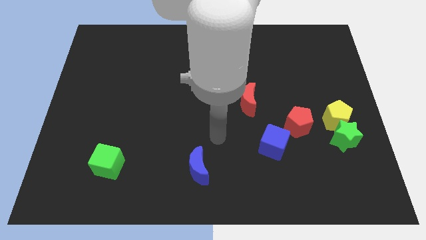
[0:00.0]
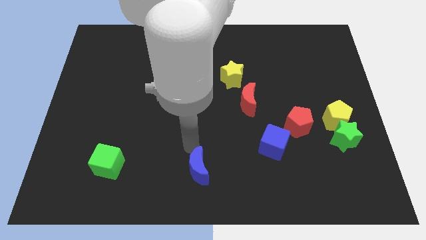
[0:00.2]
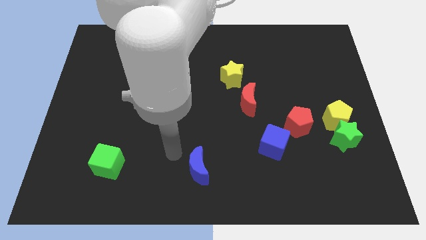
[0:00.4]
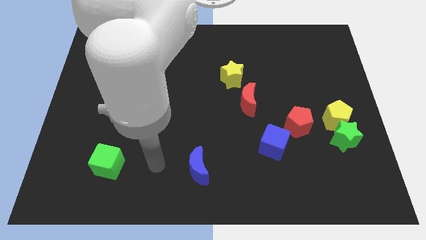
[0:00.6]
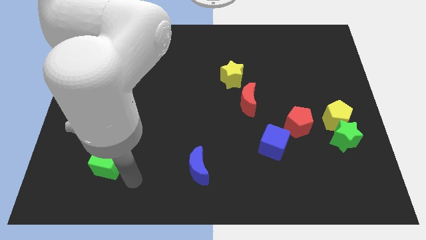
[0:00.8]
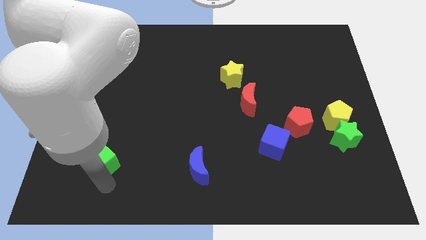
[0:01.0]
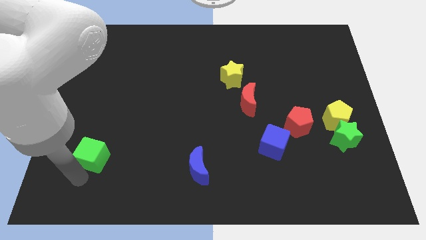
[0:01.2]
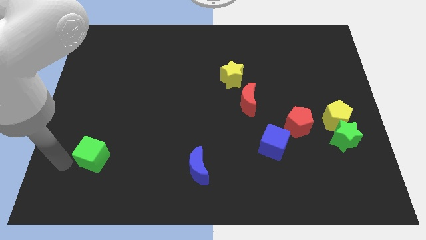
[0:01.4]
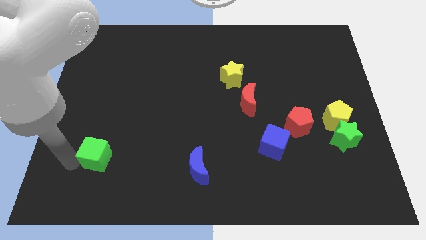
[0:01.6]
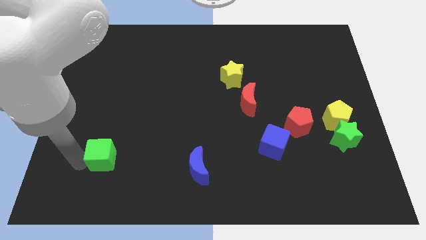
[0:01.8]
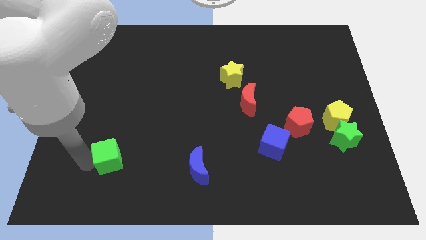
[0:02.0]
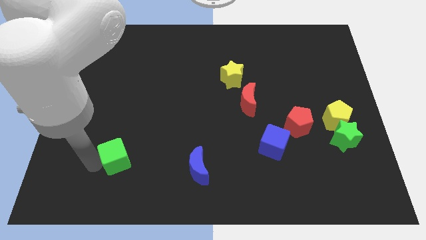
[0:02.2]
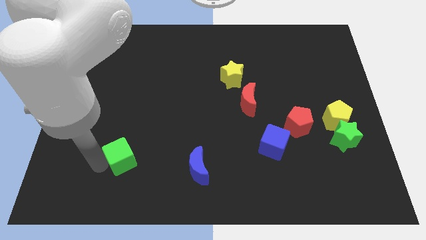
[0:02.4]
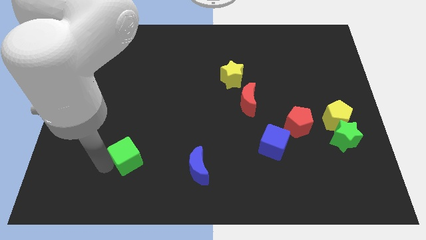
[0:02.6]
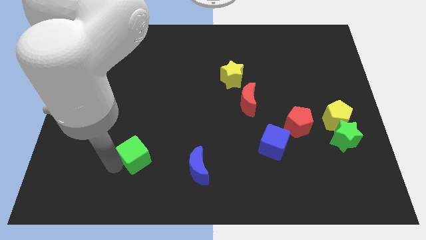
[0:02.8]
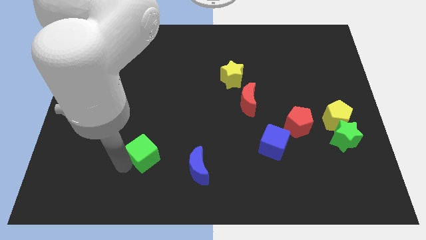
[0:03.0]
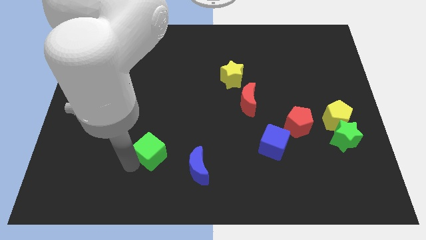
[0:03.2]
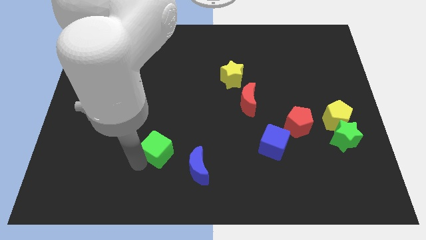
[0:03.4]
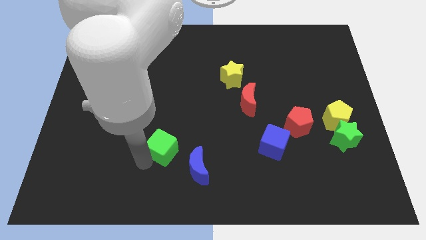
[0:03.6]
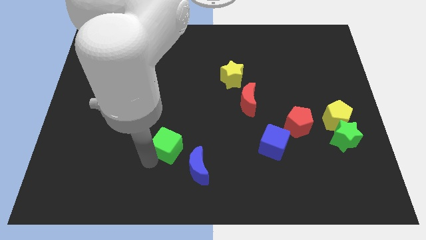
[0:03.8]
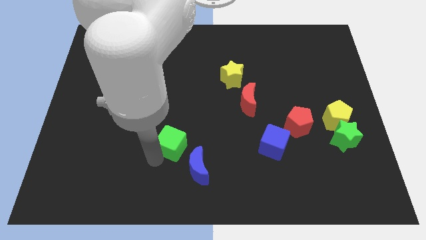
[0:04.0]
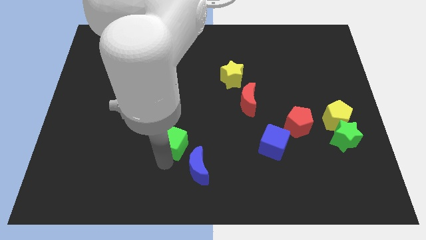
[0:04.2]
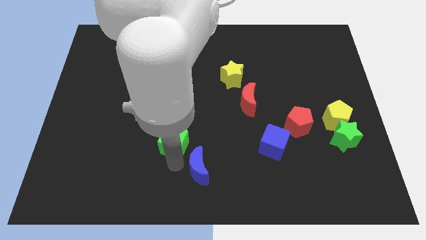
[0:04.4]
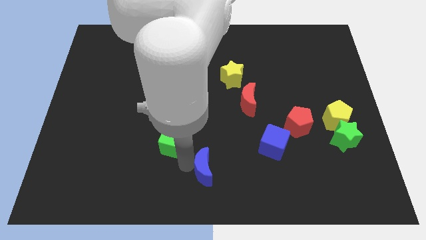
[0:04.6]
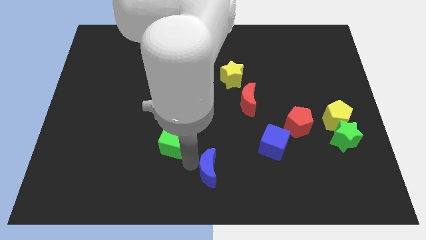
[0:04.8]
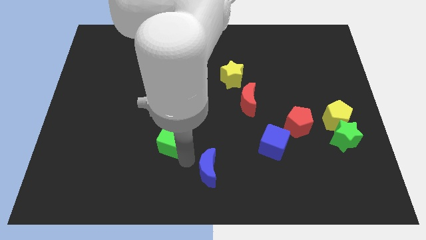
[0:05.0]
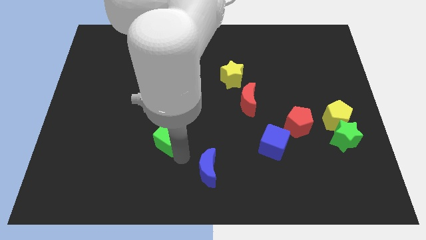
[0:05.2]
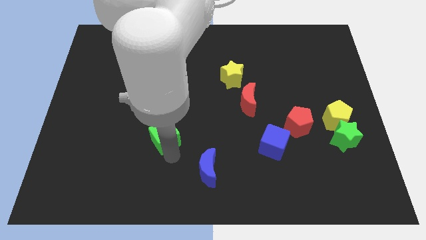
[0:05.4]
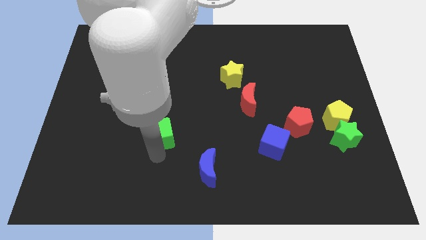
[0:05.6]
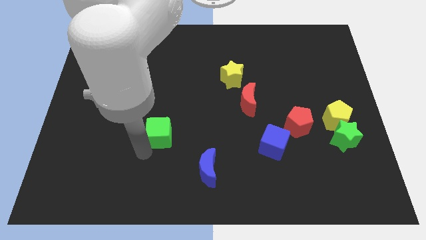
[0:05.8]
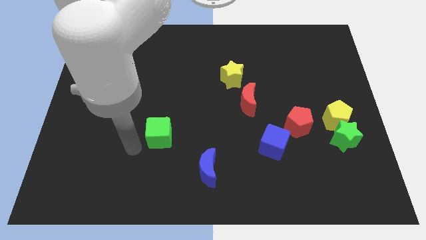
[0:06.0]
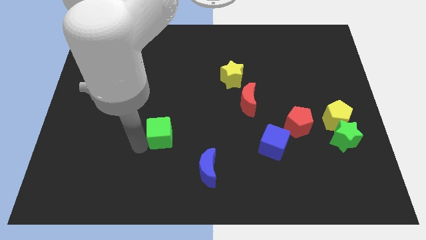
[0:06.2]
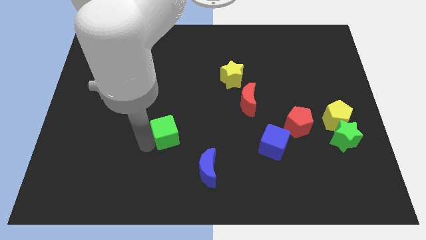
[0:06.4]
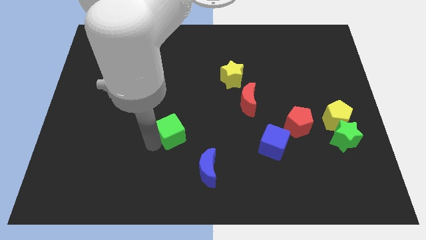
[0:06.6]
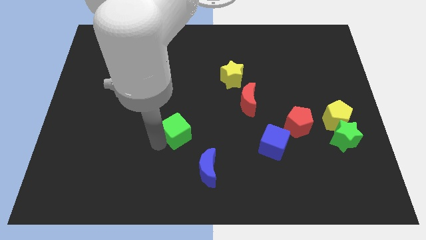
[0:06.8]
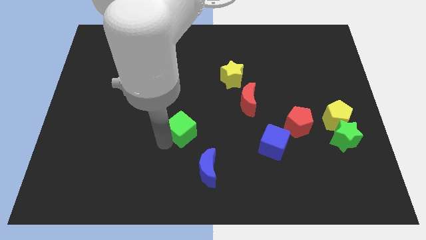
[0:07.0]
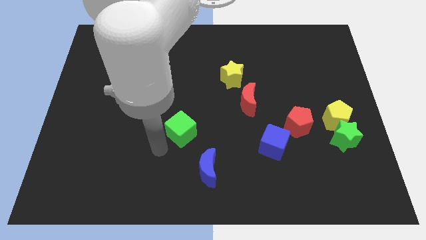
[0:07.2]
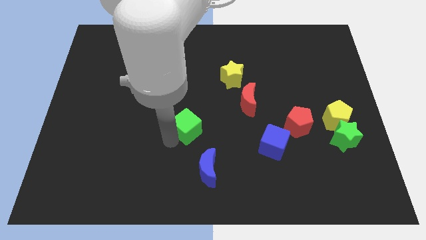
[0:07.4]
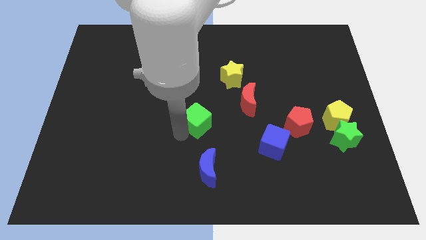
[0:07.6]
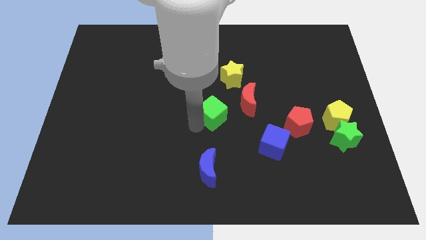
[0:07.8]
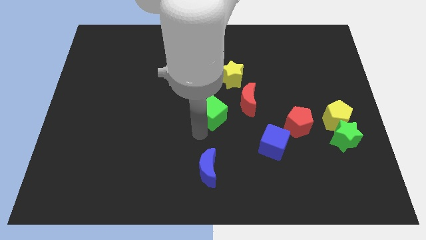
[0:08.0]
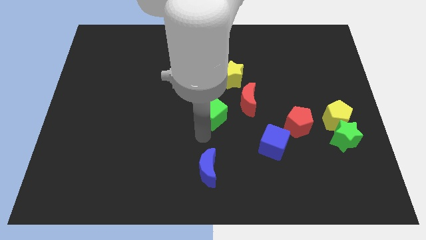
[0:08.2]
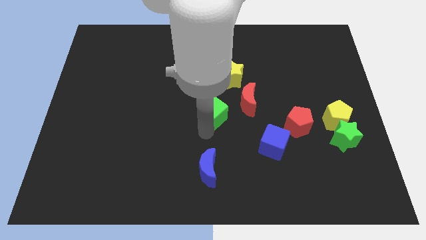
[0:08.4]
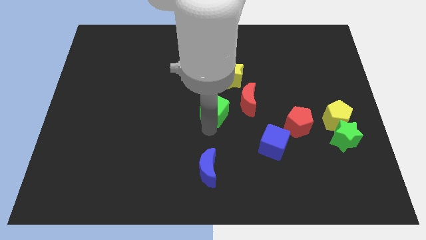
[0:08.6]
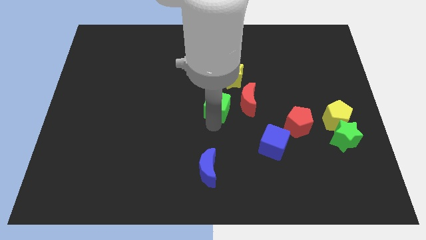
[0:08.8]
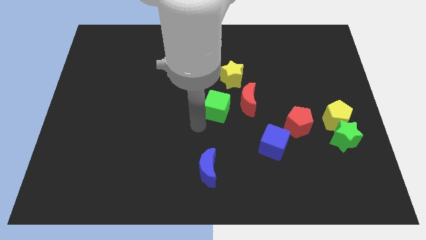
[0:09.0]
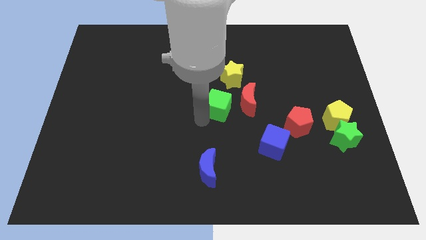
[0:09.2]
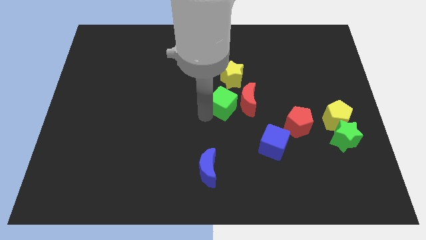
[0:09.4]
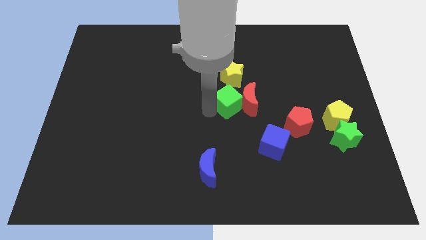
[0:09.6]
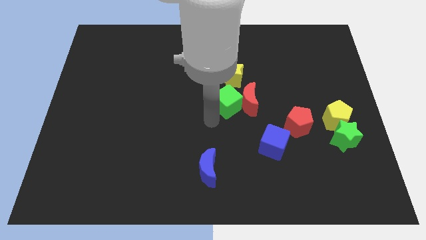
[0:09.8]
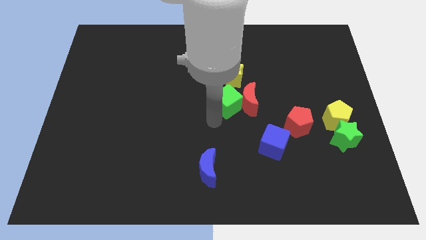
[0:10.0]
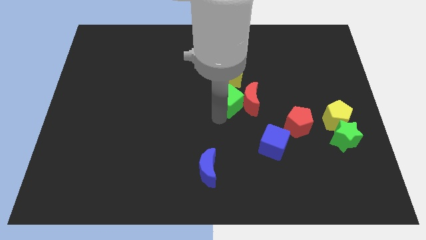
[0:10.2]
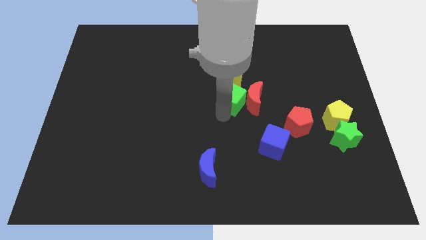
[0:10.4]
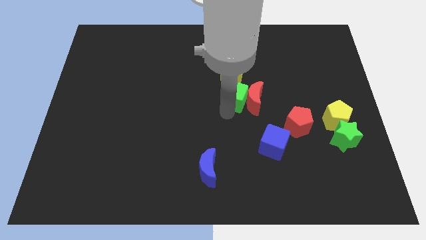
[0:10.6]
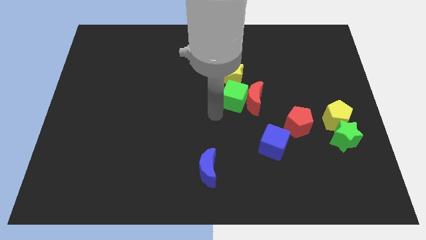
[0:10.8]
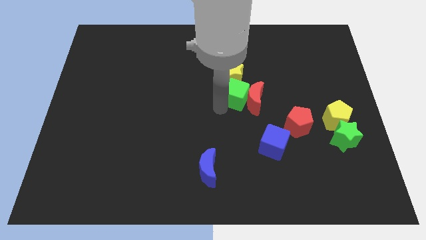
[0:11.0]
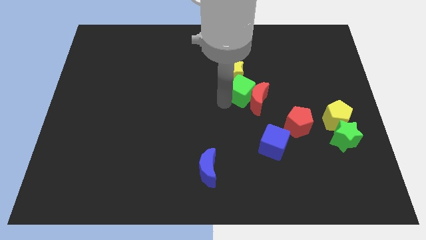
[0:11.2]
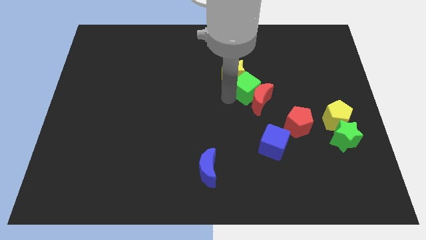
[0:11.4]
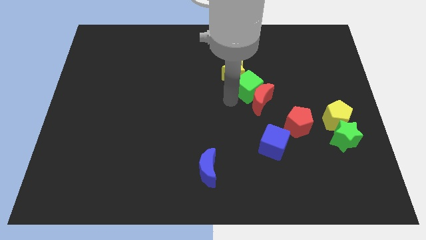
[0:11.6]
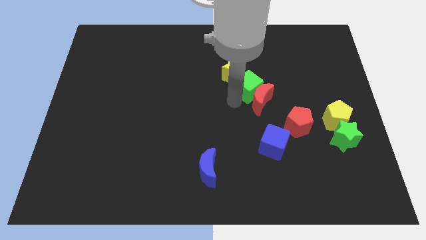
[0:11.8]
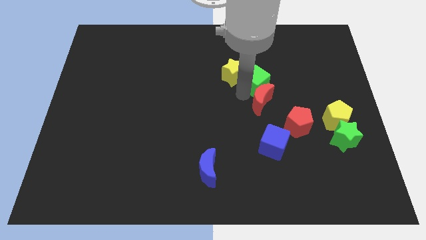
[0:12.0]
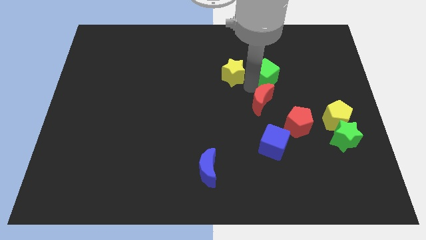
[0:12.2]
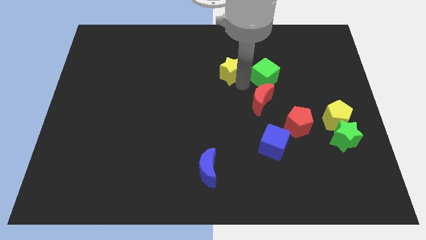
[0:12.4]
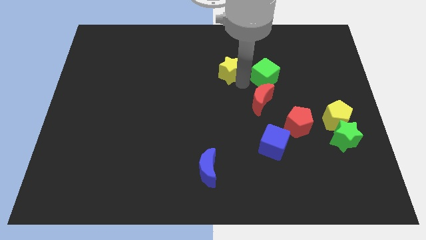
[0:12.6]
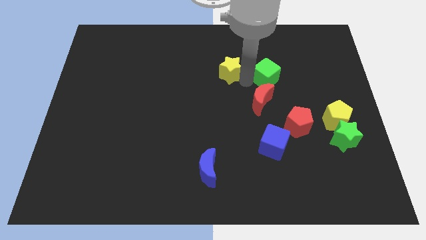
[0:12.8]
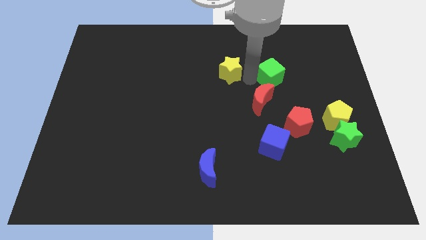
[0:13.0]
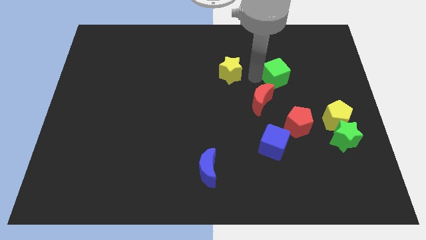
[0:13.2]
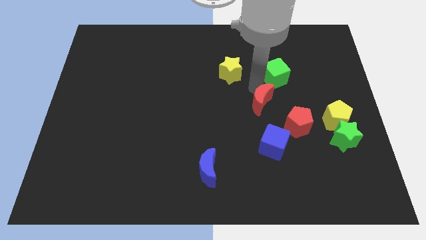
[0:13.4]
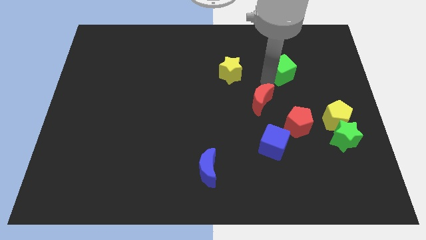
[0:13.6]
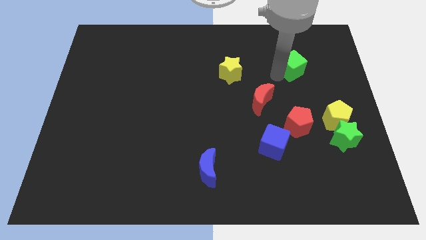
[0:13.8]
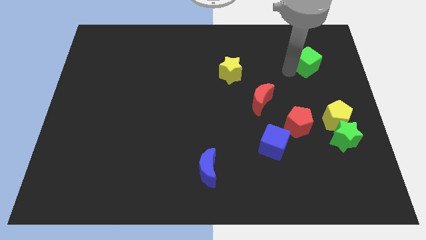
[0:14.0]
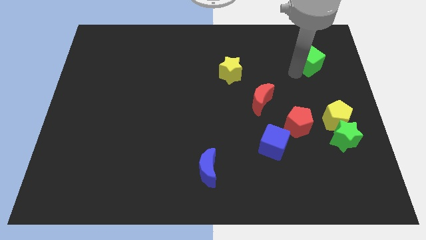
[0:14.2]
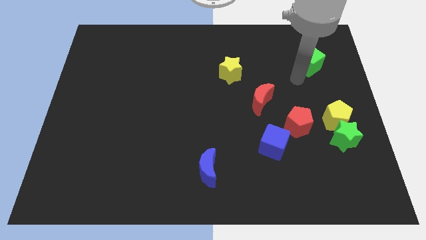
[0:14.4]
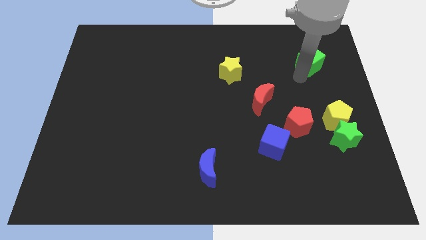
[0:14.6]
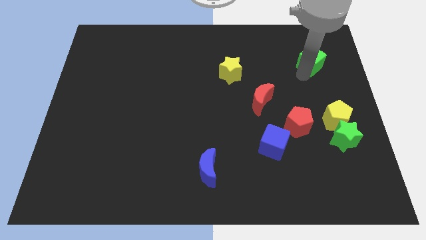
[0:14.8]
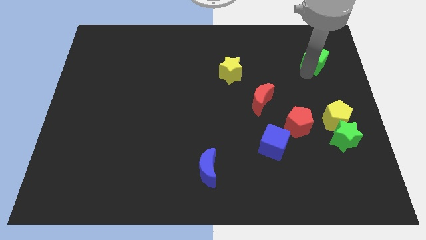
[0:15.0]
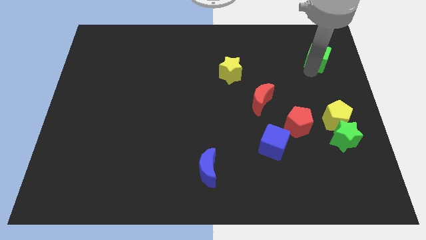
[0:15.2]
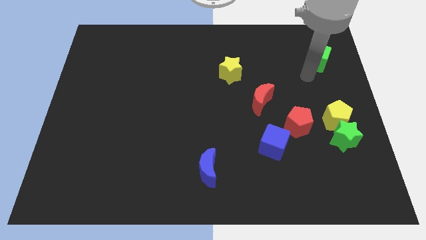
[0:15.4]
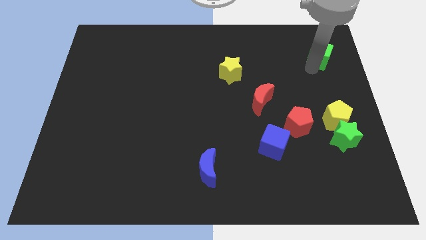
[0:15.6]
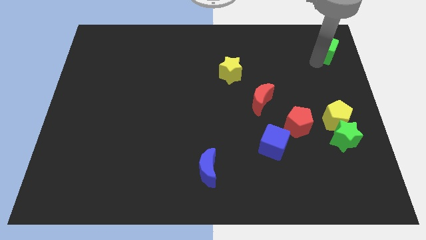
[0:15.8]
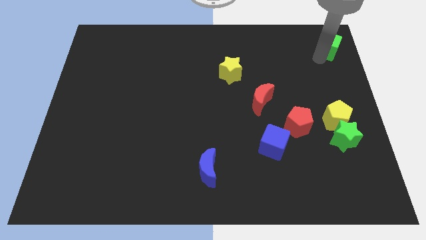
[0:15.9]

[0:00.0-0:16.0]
push the green cube to the top right
